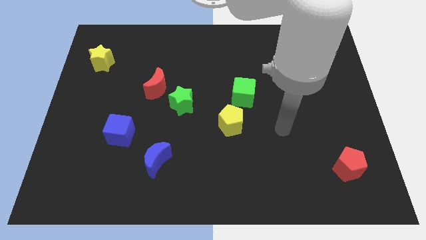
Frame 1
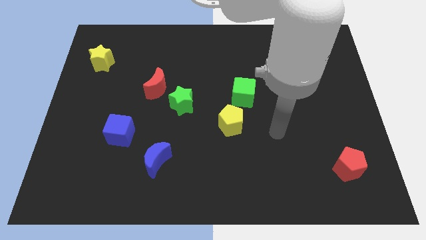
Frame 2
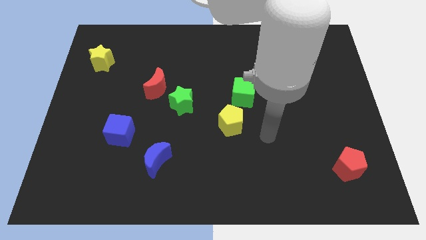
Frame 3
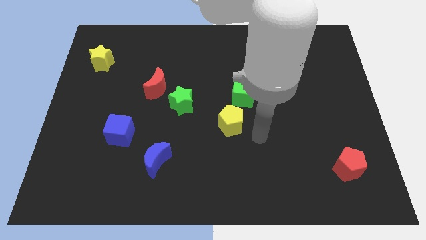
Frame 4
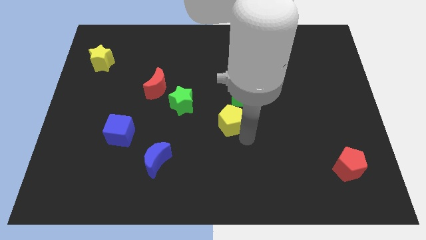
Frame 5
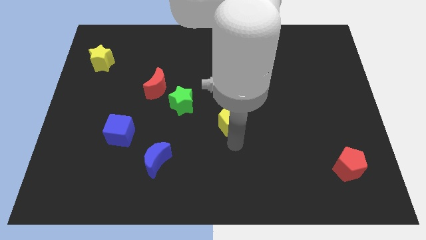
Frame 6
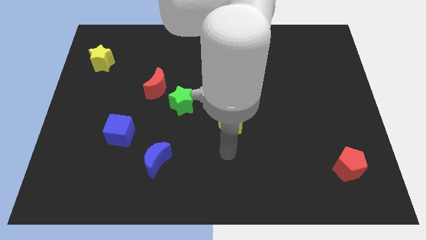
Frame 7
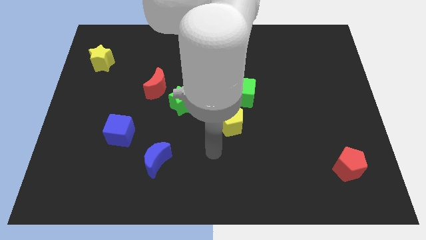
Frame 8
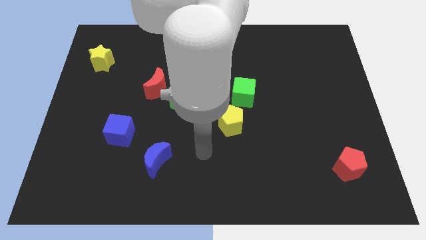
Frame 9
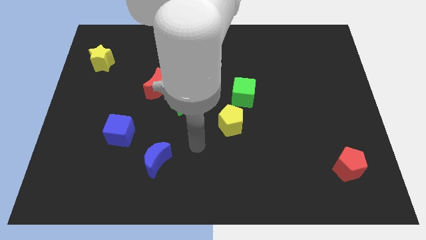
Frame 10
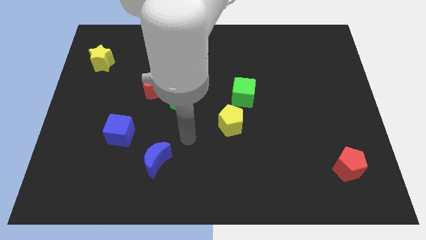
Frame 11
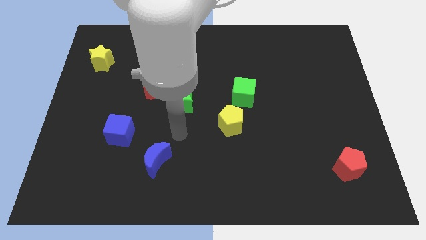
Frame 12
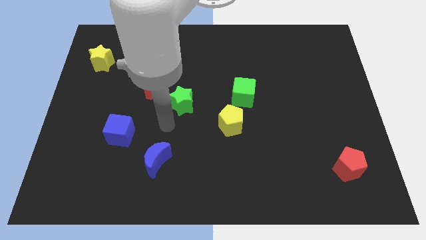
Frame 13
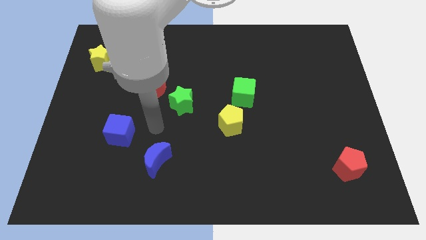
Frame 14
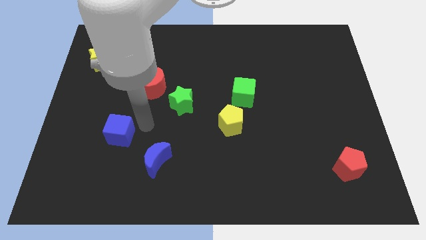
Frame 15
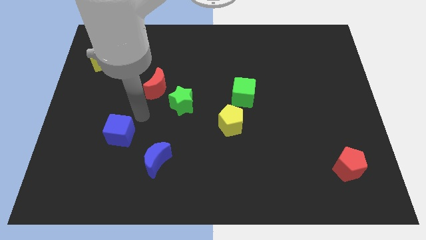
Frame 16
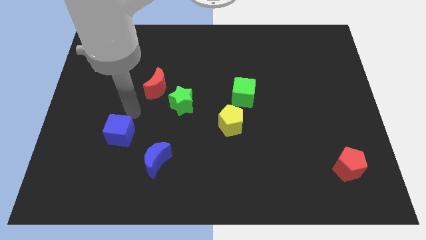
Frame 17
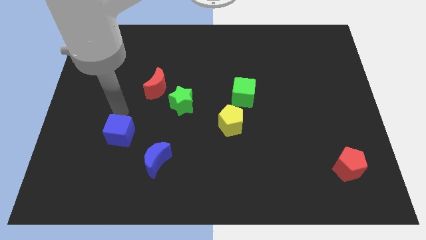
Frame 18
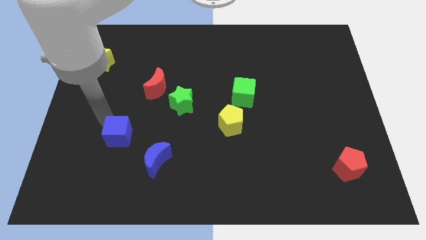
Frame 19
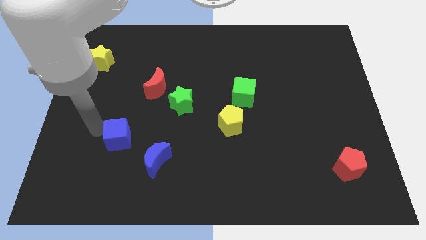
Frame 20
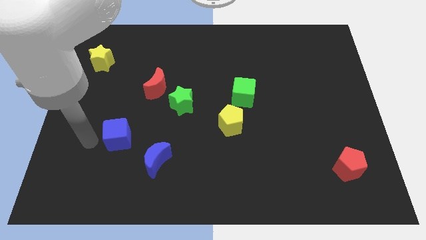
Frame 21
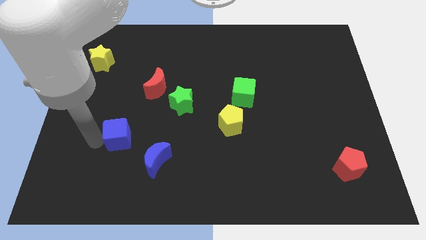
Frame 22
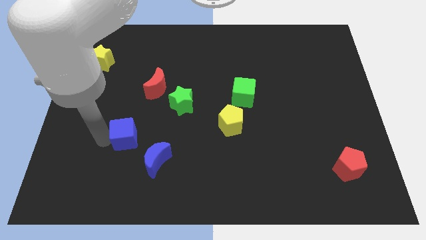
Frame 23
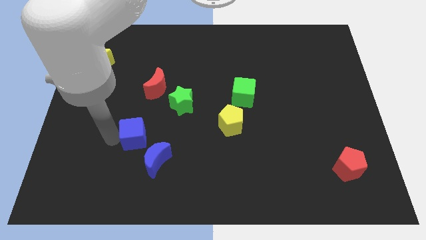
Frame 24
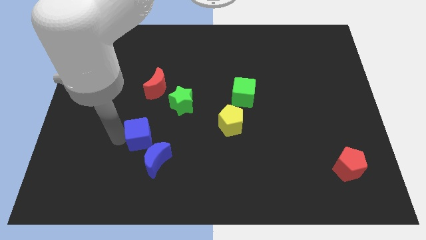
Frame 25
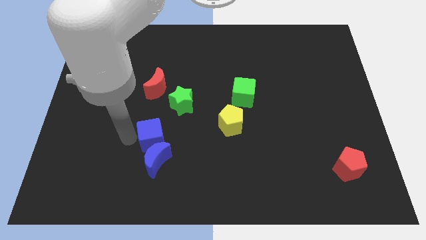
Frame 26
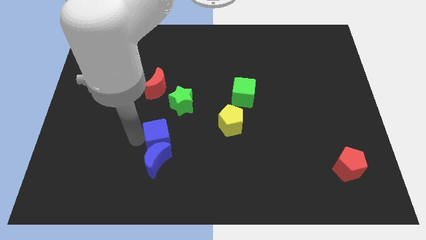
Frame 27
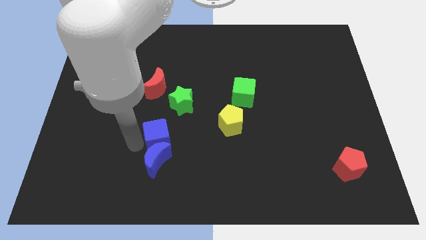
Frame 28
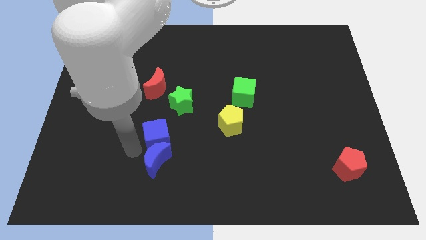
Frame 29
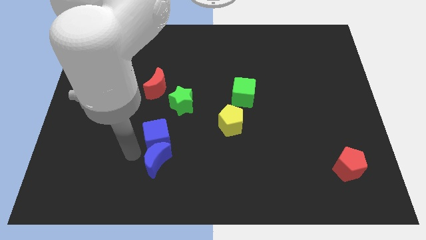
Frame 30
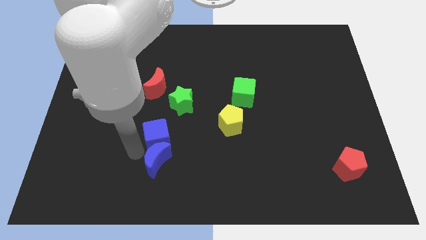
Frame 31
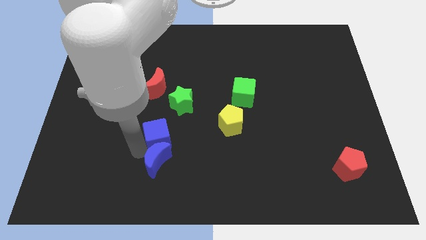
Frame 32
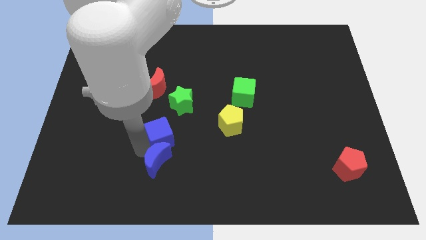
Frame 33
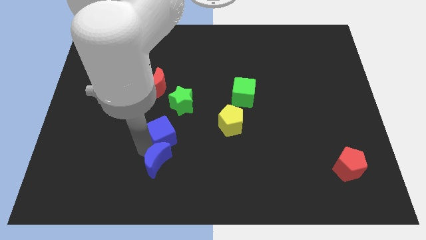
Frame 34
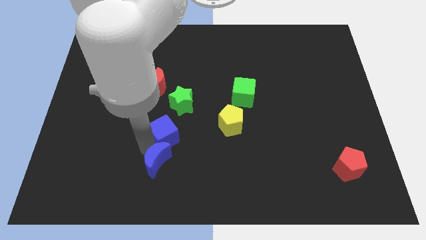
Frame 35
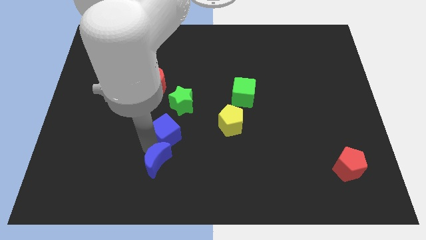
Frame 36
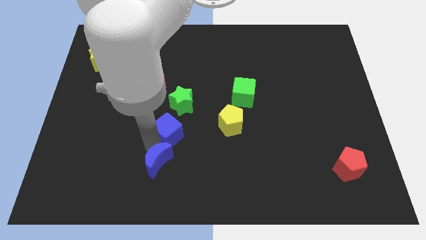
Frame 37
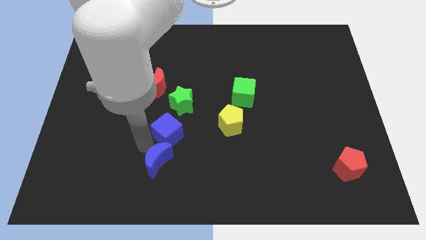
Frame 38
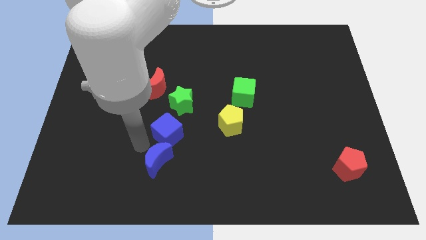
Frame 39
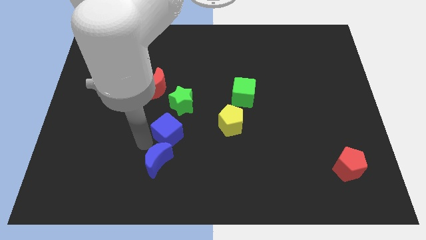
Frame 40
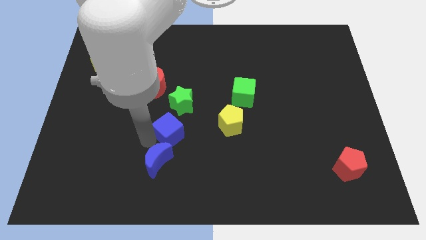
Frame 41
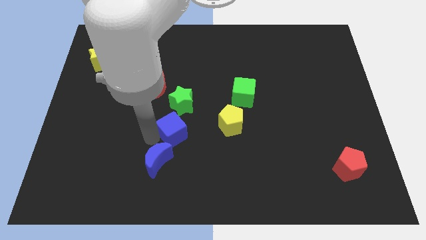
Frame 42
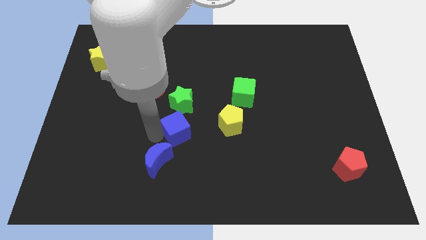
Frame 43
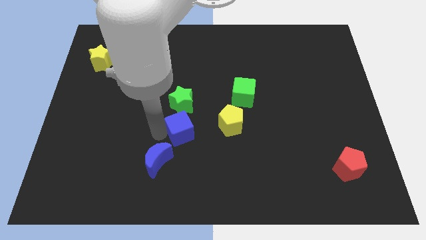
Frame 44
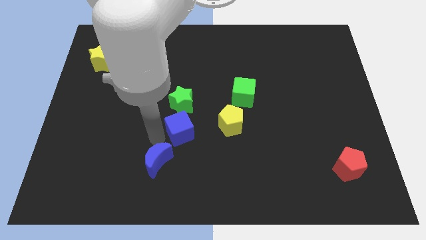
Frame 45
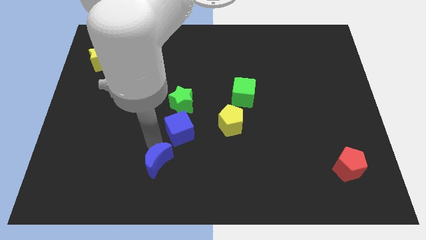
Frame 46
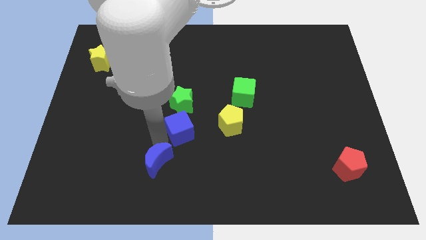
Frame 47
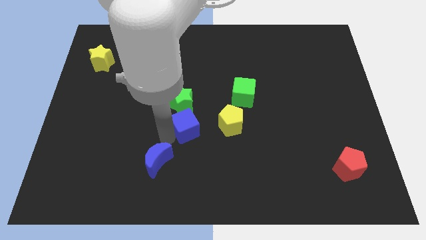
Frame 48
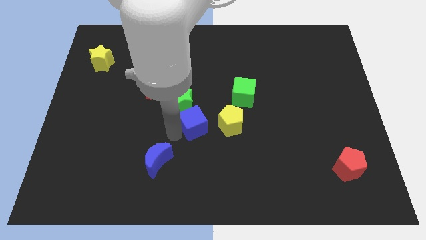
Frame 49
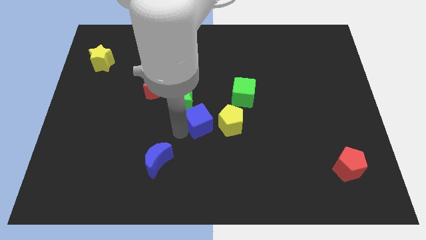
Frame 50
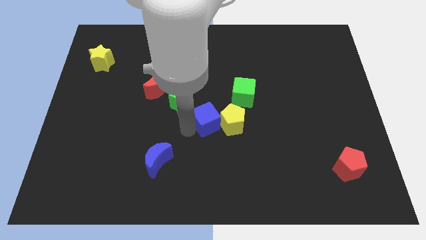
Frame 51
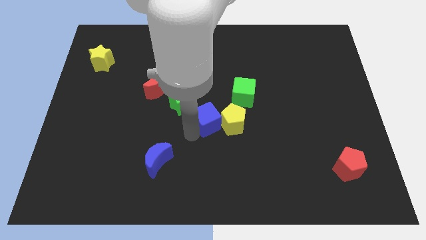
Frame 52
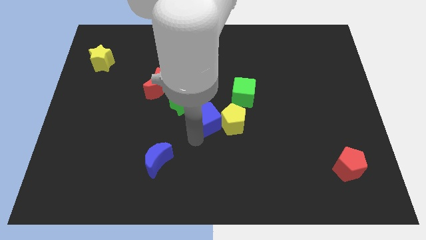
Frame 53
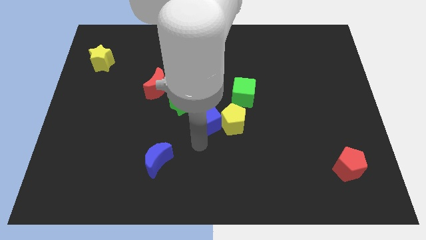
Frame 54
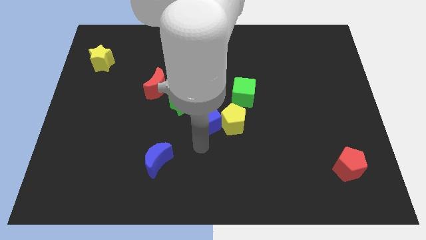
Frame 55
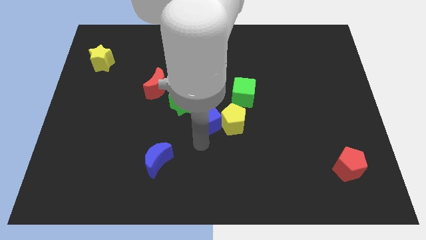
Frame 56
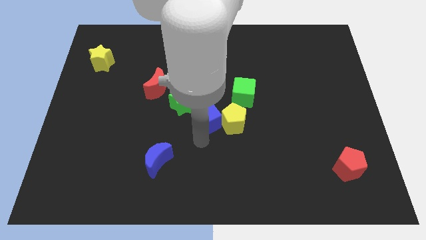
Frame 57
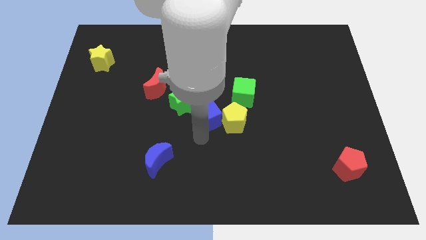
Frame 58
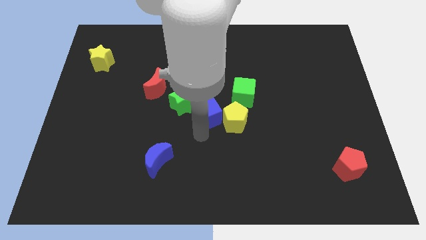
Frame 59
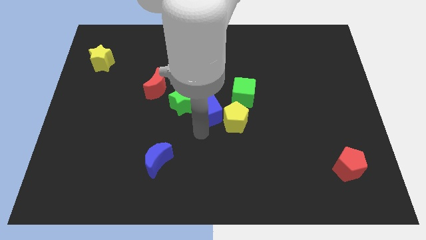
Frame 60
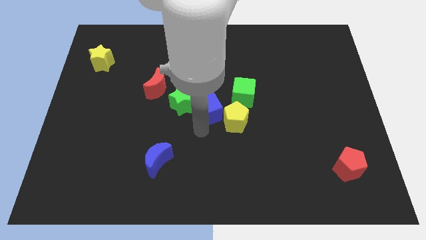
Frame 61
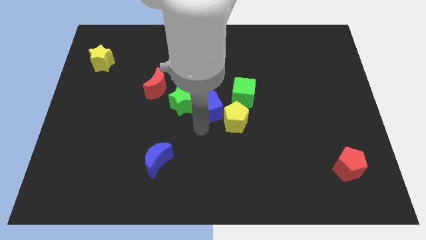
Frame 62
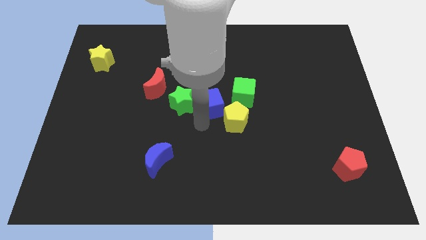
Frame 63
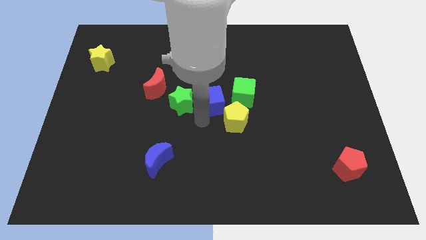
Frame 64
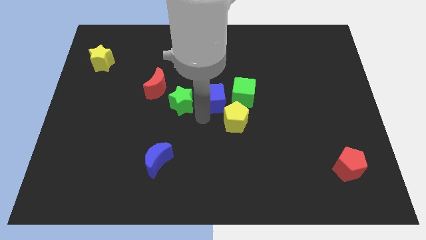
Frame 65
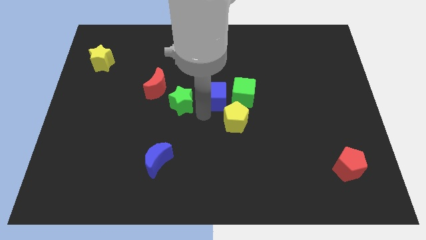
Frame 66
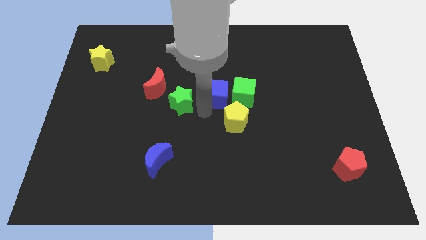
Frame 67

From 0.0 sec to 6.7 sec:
slide the blue cube diagonally up and right

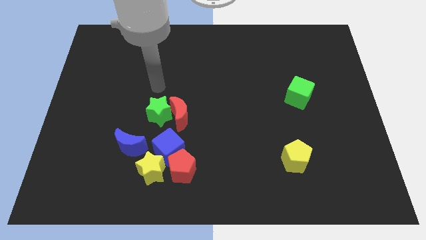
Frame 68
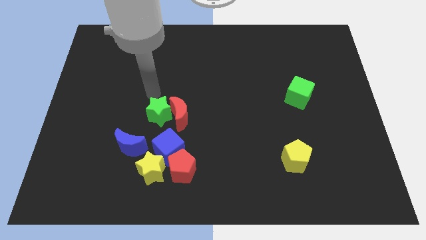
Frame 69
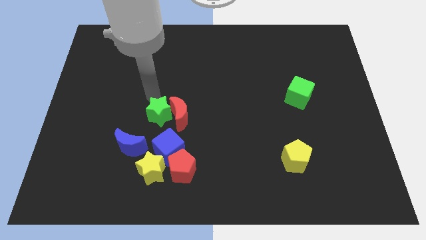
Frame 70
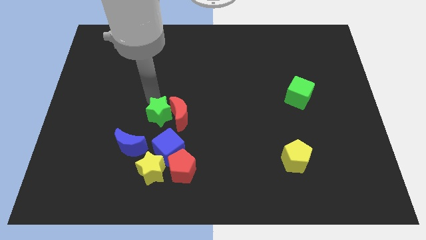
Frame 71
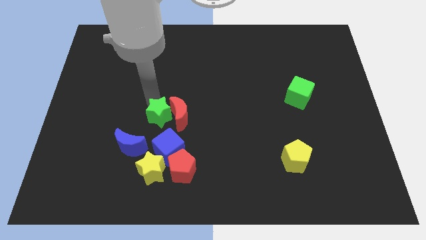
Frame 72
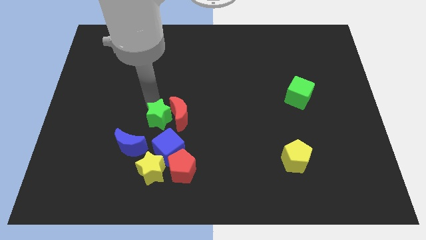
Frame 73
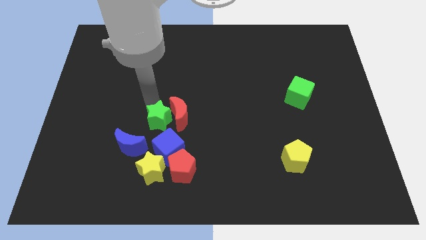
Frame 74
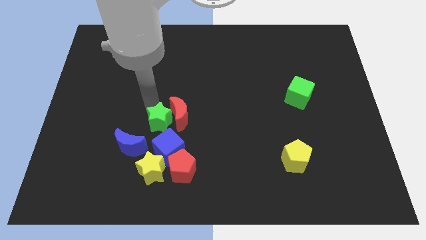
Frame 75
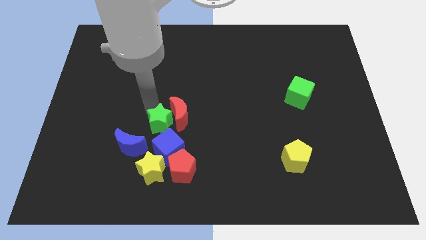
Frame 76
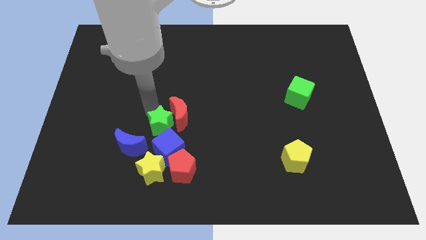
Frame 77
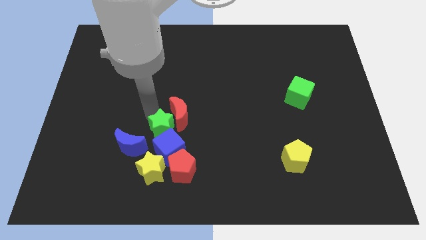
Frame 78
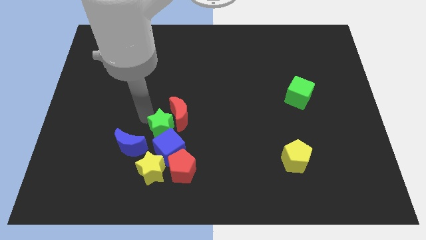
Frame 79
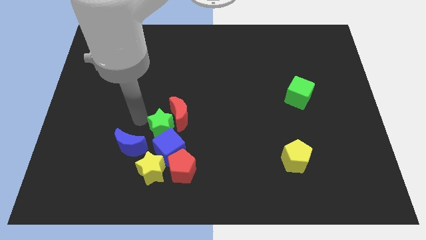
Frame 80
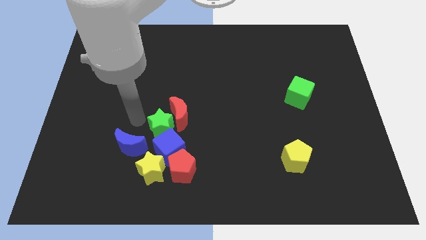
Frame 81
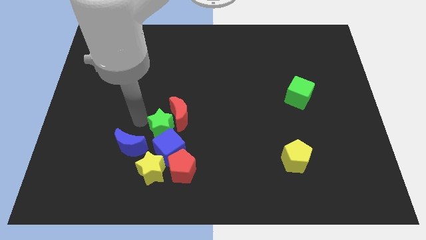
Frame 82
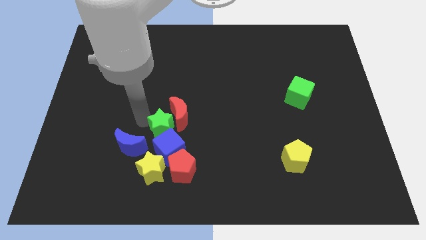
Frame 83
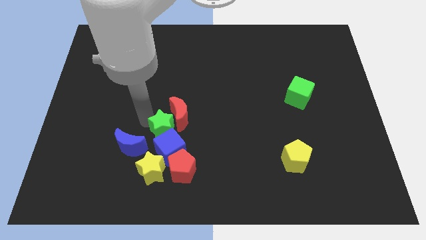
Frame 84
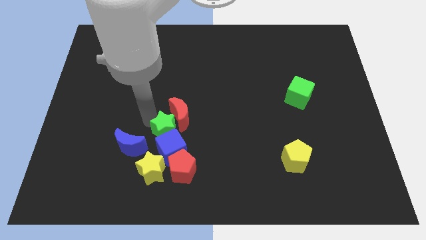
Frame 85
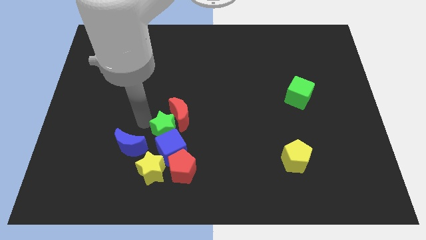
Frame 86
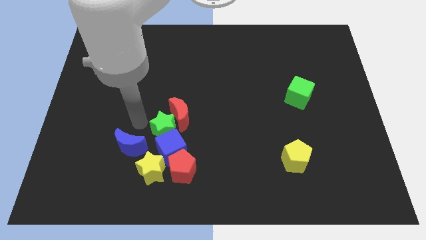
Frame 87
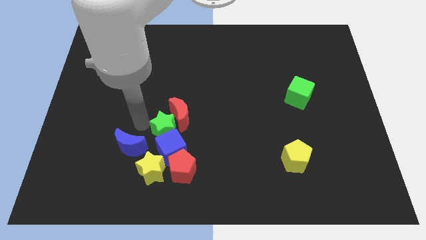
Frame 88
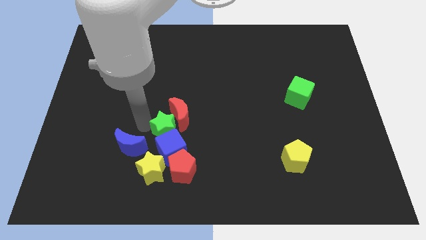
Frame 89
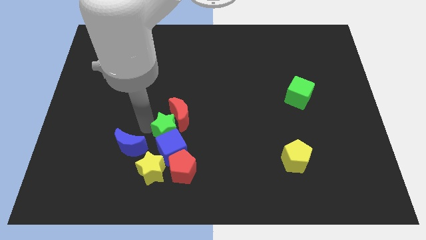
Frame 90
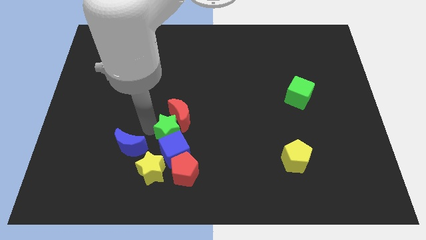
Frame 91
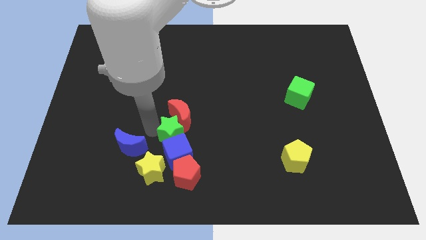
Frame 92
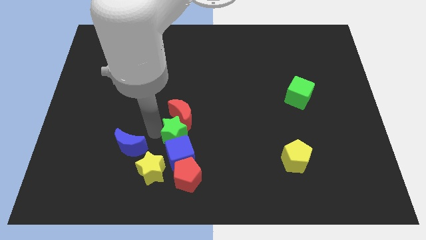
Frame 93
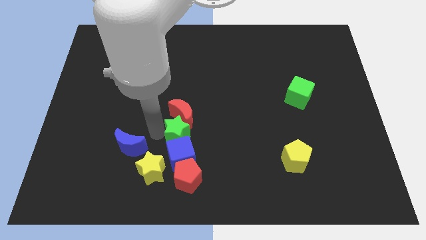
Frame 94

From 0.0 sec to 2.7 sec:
slide the green star a little bit downwards and to the right
